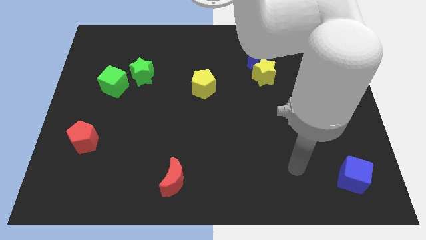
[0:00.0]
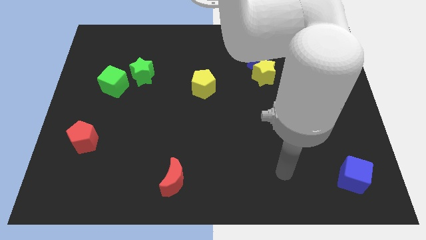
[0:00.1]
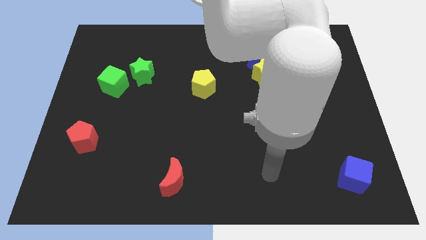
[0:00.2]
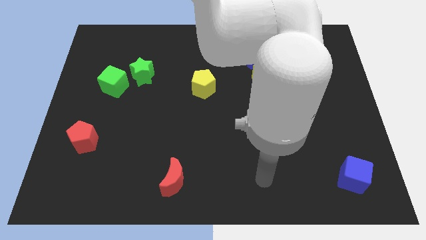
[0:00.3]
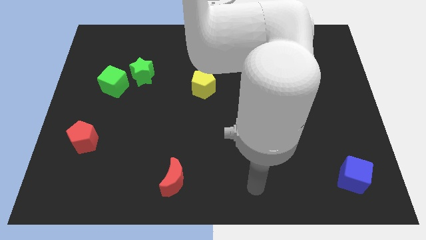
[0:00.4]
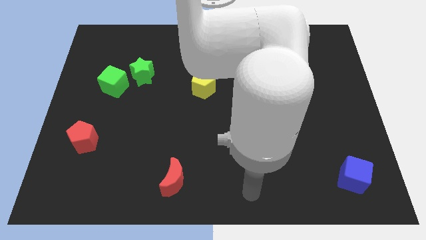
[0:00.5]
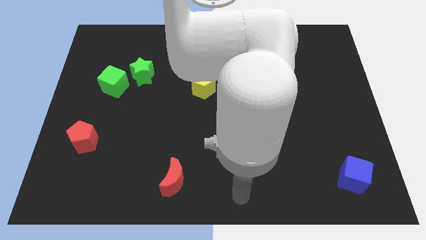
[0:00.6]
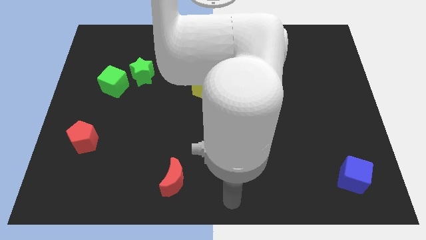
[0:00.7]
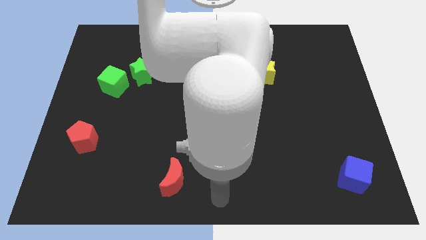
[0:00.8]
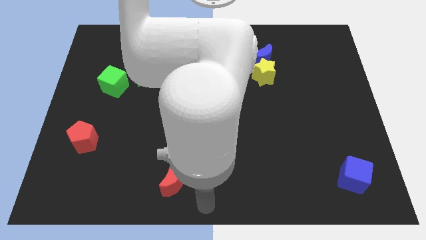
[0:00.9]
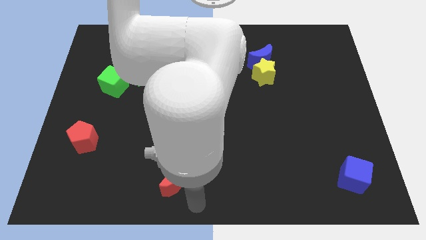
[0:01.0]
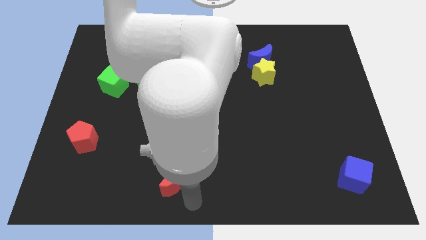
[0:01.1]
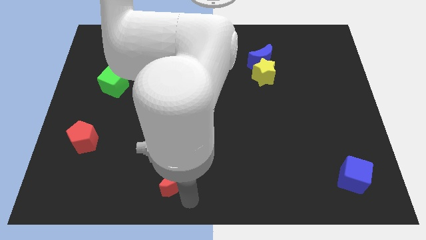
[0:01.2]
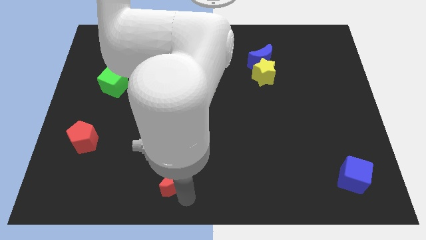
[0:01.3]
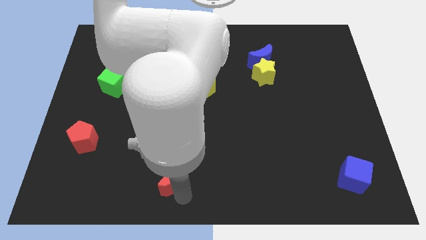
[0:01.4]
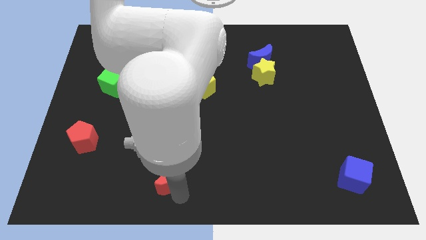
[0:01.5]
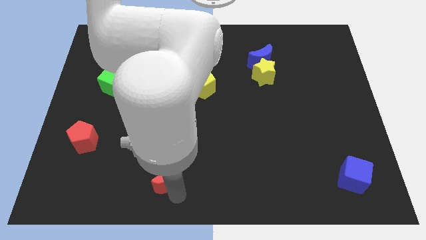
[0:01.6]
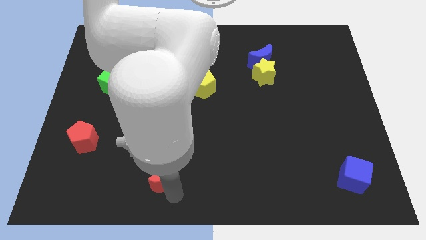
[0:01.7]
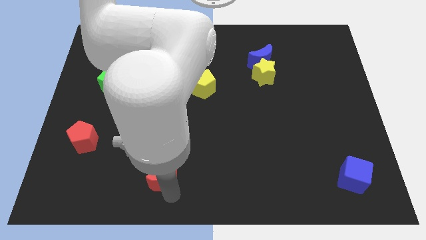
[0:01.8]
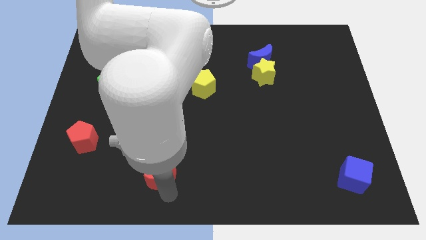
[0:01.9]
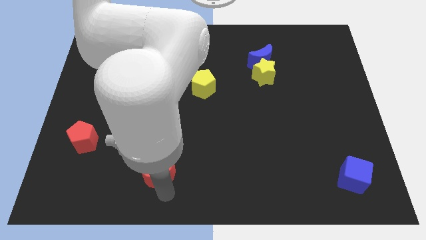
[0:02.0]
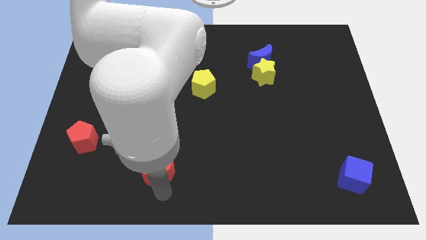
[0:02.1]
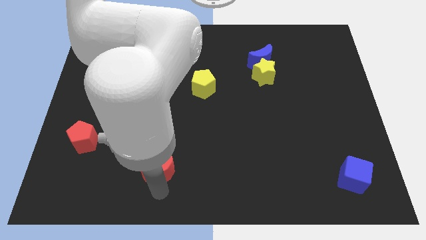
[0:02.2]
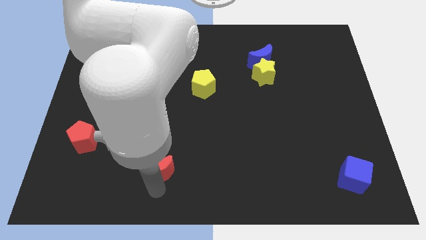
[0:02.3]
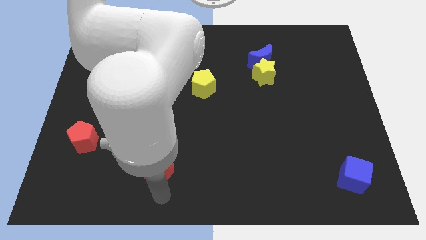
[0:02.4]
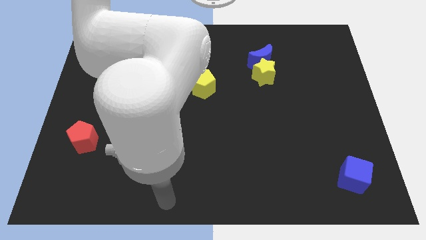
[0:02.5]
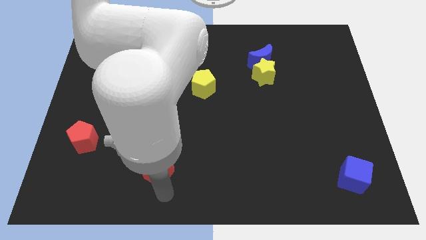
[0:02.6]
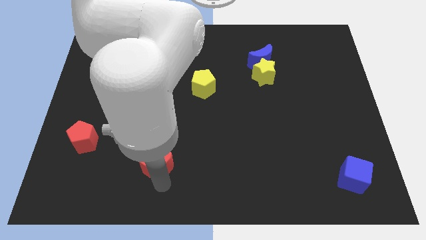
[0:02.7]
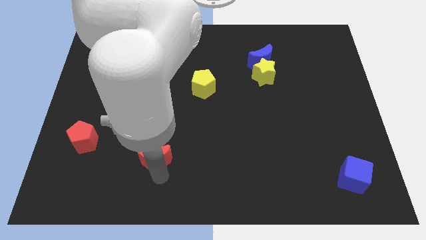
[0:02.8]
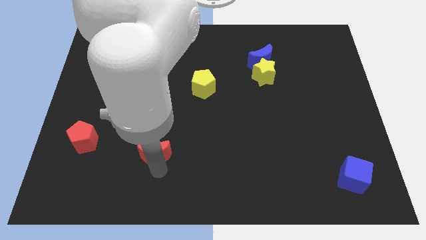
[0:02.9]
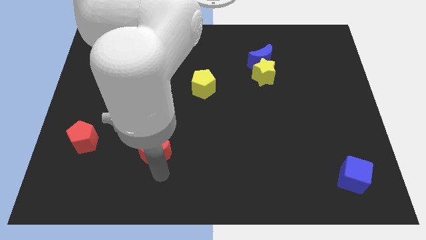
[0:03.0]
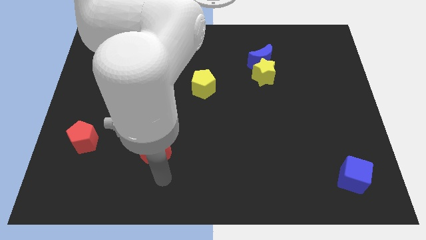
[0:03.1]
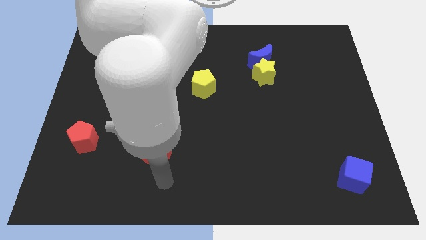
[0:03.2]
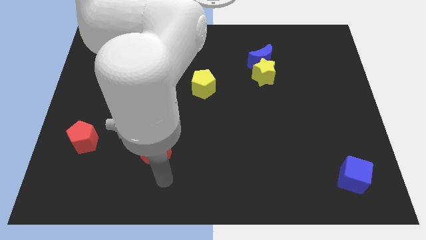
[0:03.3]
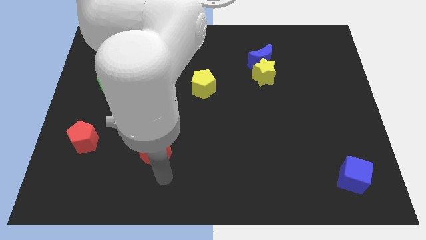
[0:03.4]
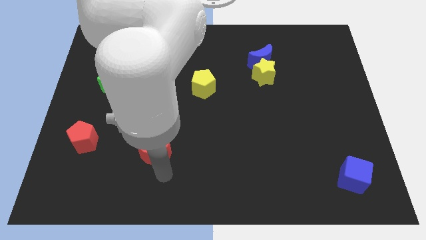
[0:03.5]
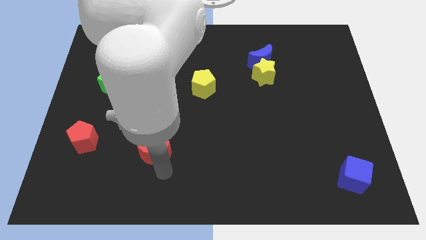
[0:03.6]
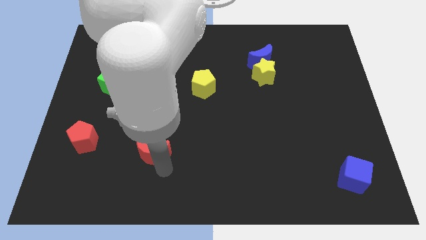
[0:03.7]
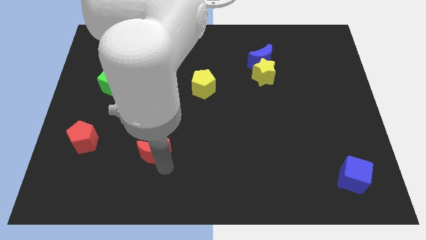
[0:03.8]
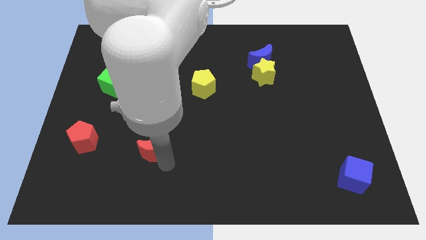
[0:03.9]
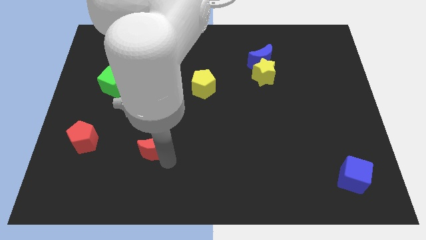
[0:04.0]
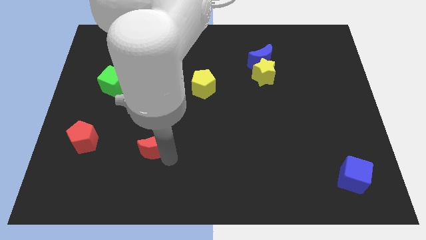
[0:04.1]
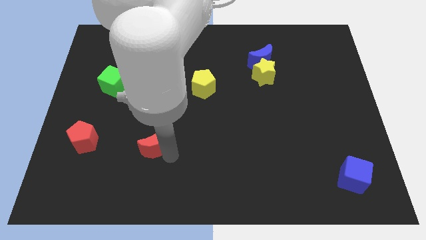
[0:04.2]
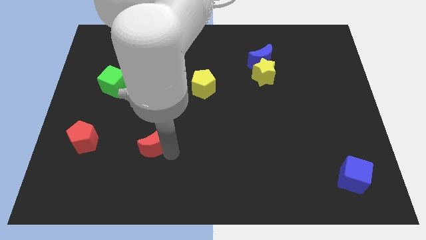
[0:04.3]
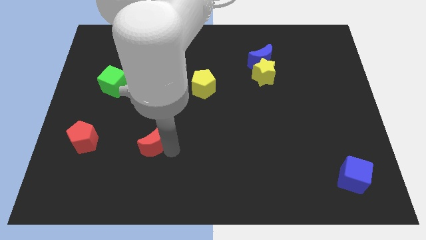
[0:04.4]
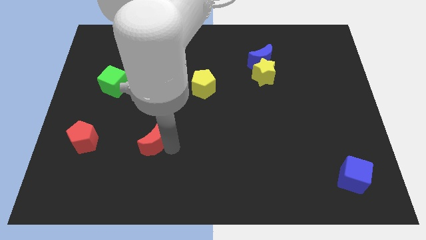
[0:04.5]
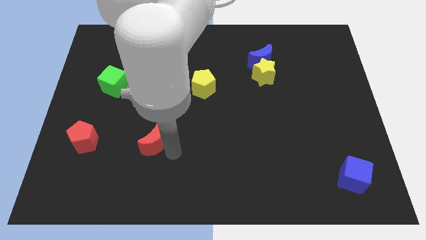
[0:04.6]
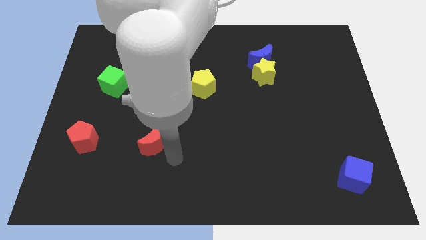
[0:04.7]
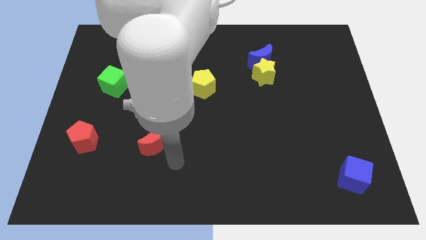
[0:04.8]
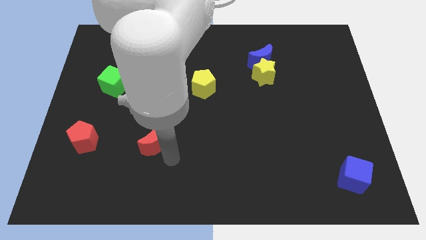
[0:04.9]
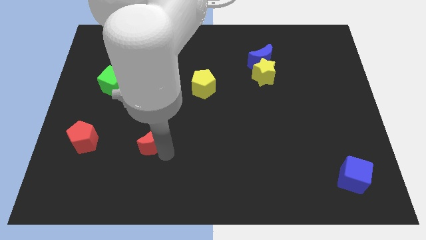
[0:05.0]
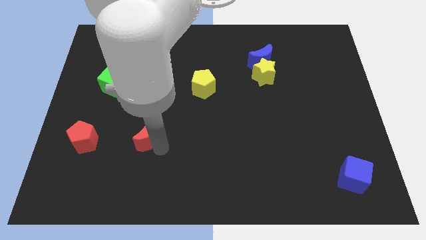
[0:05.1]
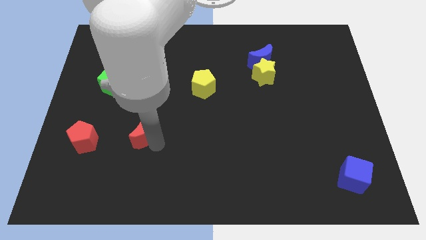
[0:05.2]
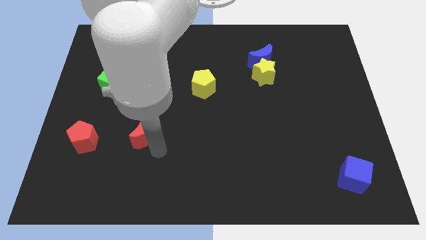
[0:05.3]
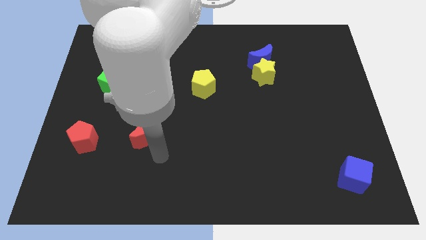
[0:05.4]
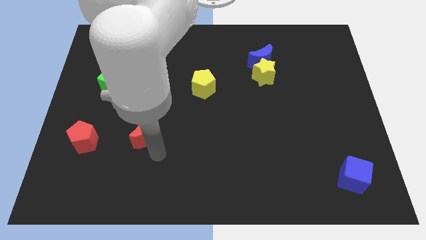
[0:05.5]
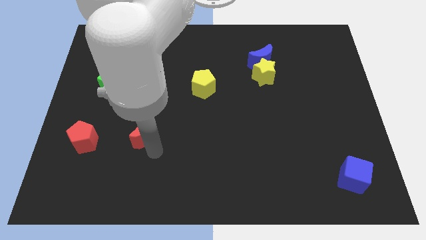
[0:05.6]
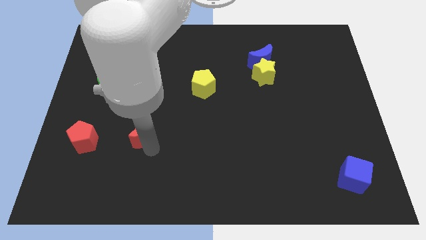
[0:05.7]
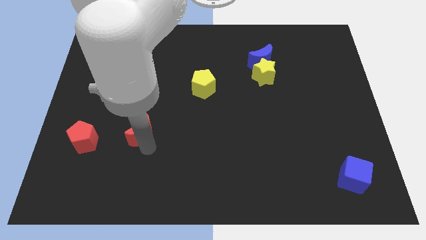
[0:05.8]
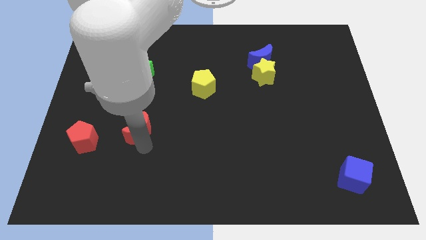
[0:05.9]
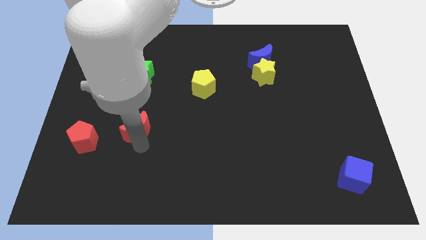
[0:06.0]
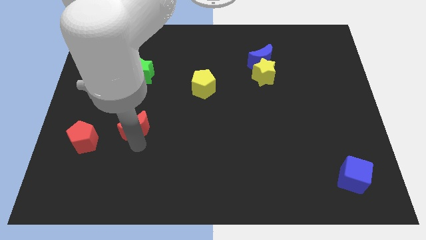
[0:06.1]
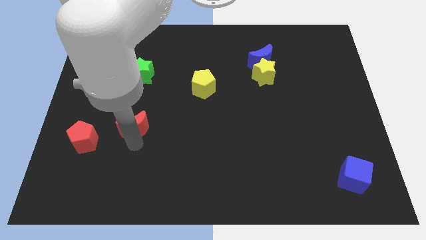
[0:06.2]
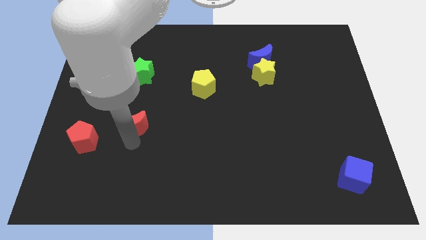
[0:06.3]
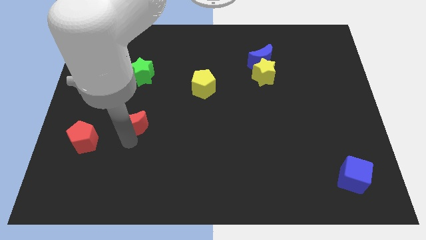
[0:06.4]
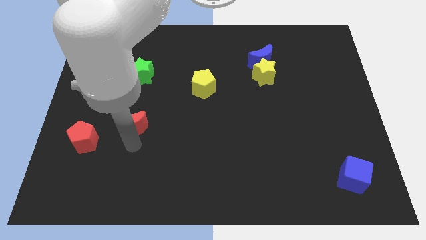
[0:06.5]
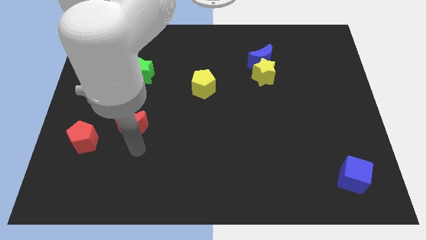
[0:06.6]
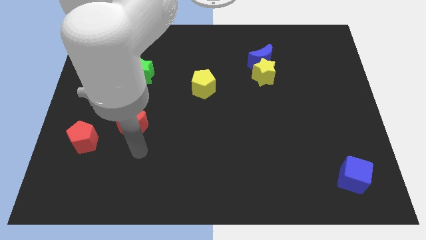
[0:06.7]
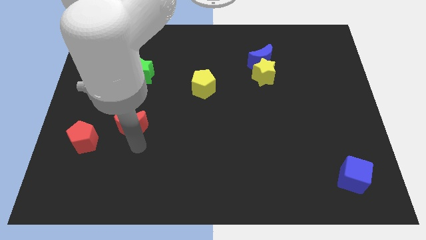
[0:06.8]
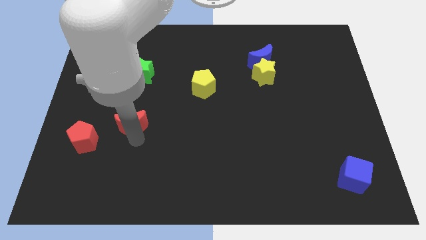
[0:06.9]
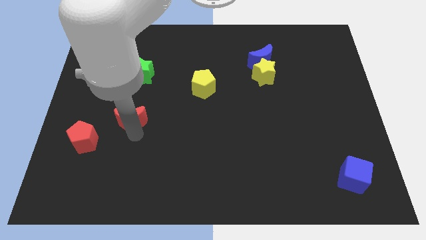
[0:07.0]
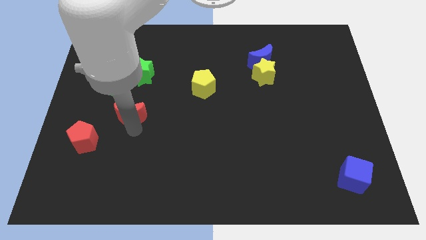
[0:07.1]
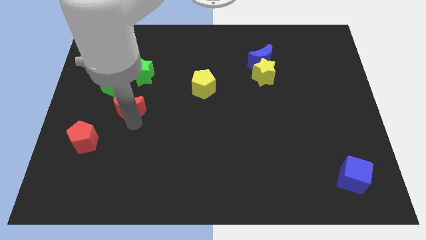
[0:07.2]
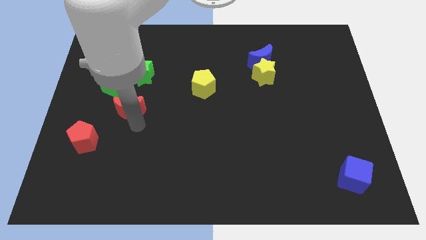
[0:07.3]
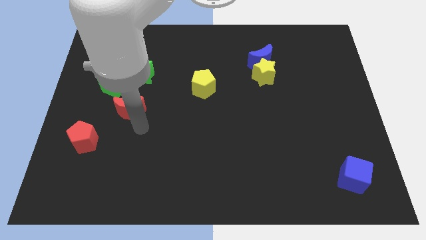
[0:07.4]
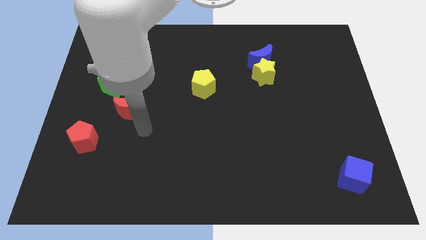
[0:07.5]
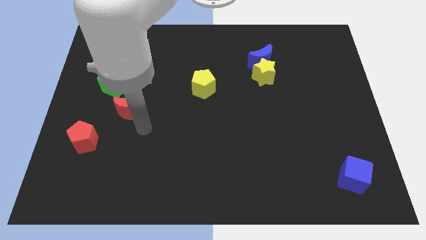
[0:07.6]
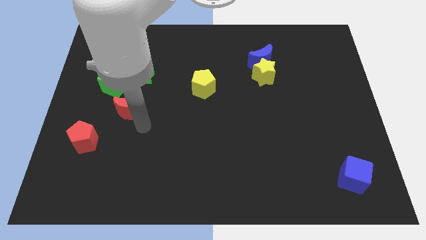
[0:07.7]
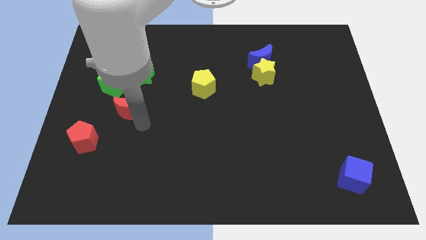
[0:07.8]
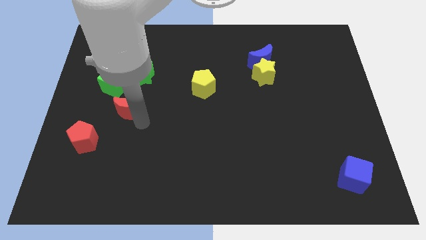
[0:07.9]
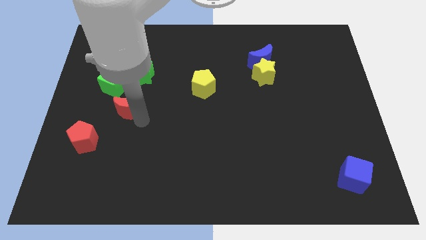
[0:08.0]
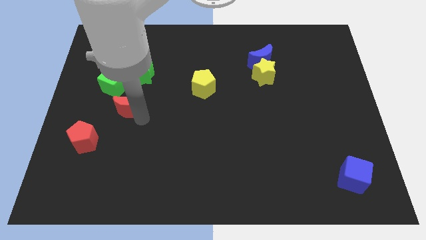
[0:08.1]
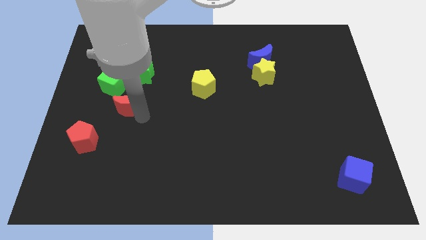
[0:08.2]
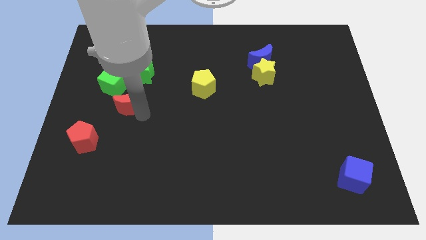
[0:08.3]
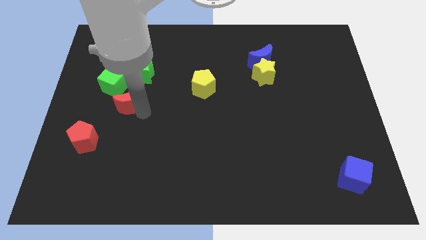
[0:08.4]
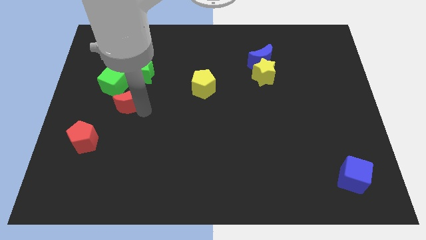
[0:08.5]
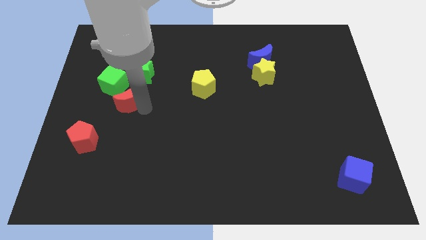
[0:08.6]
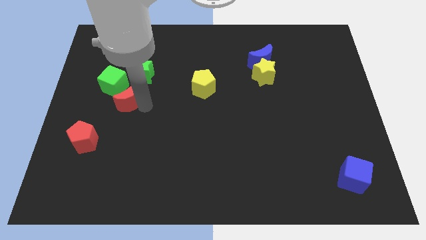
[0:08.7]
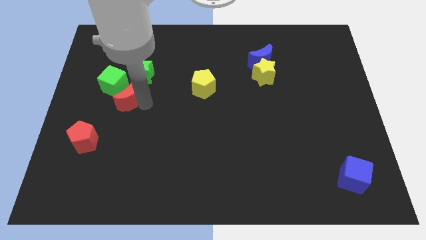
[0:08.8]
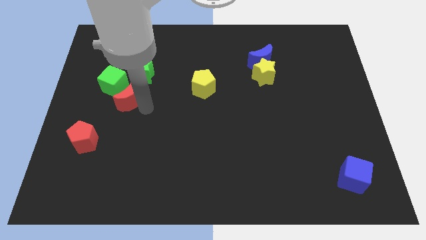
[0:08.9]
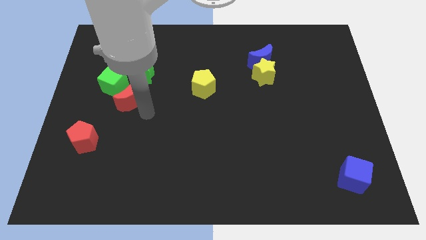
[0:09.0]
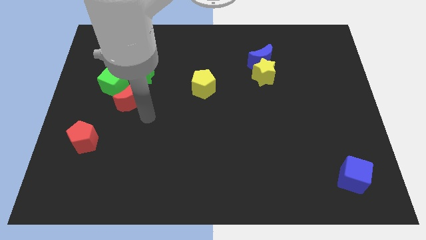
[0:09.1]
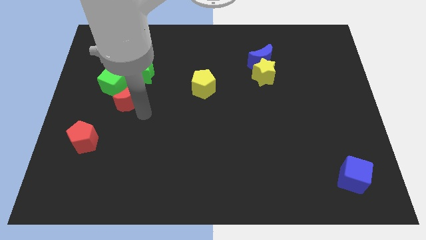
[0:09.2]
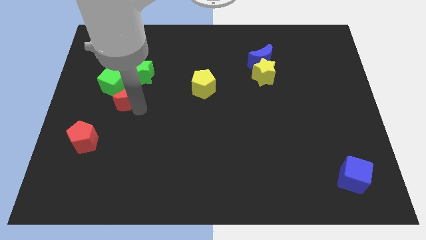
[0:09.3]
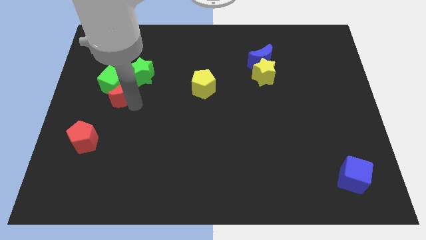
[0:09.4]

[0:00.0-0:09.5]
slide the red moon next to the green cube
